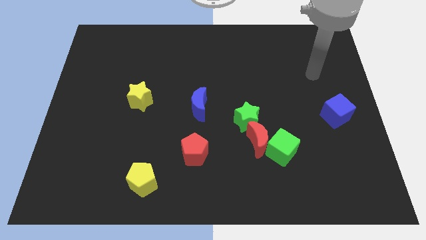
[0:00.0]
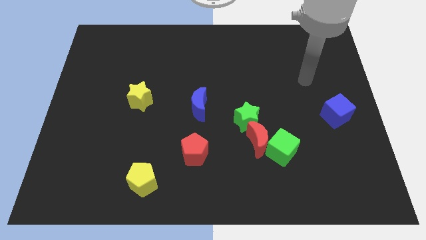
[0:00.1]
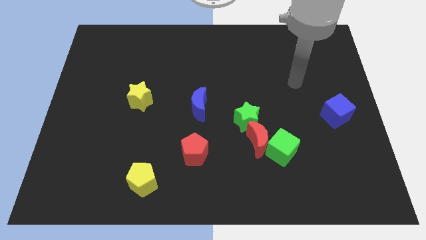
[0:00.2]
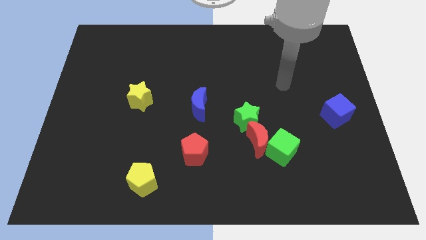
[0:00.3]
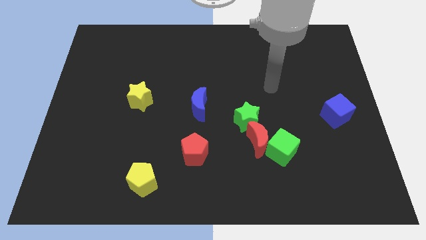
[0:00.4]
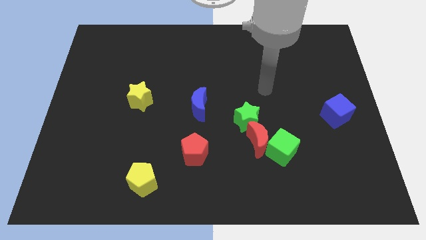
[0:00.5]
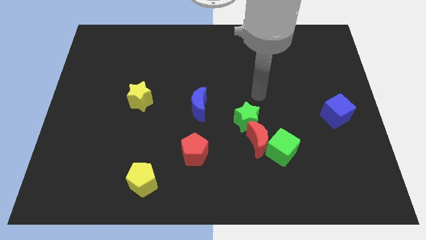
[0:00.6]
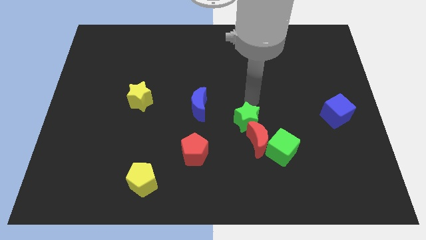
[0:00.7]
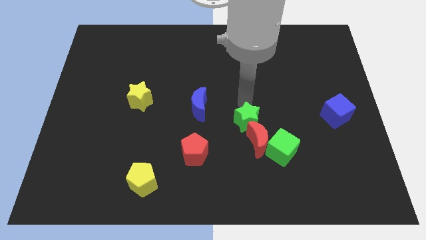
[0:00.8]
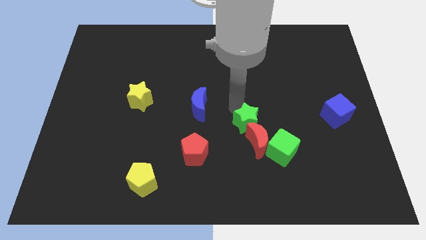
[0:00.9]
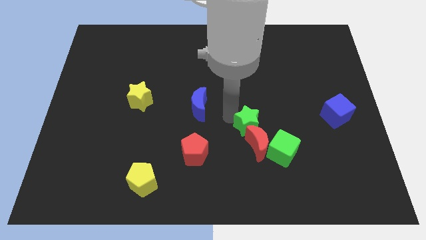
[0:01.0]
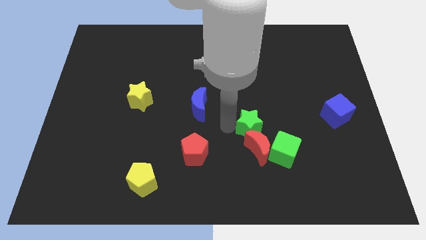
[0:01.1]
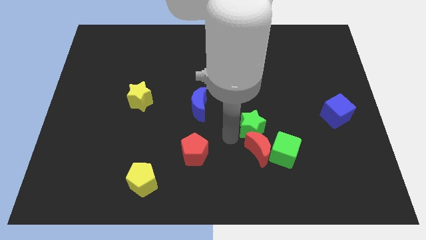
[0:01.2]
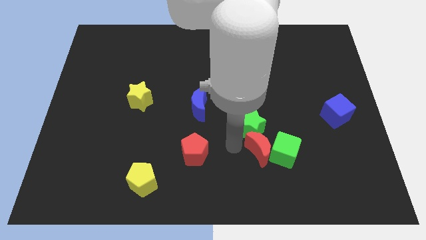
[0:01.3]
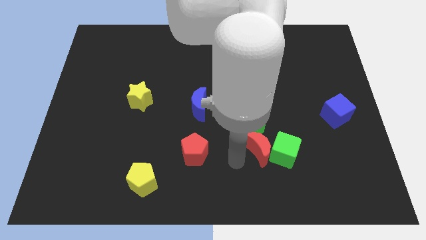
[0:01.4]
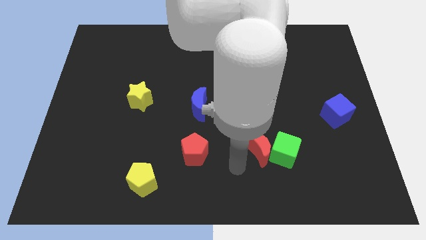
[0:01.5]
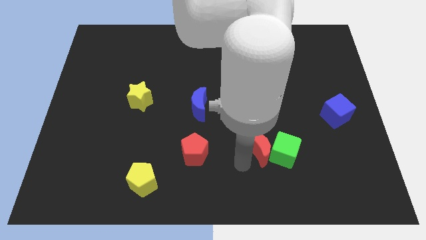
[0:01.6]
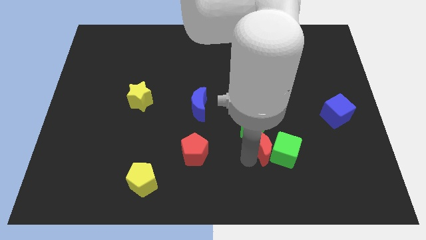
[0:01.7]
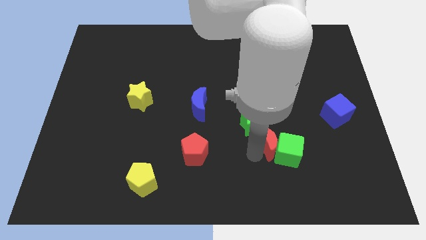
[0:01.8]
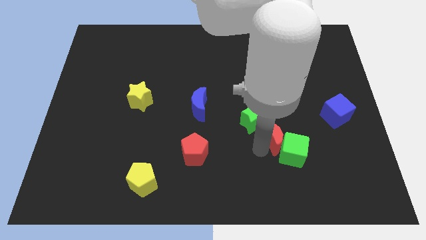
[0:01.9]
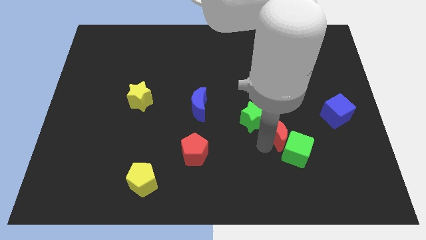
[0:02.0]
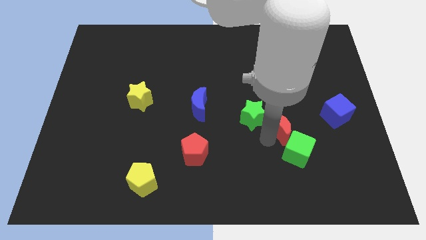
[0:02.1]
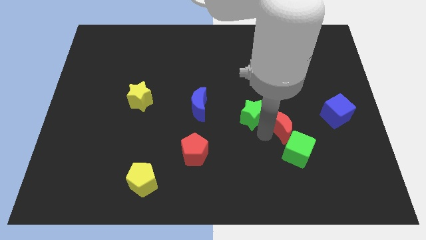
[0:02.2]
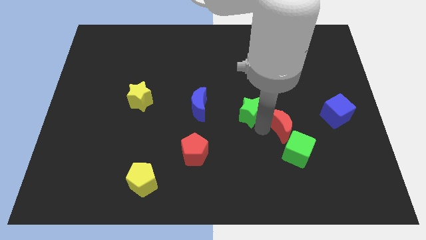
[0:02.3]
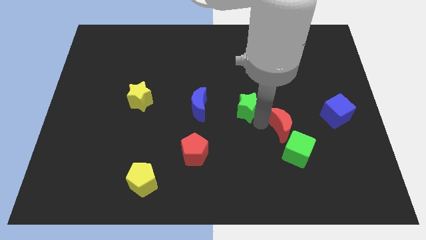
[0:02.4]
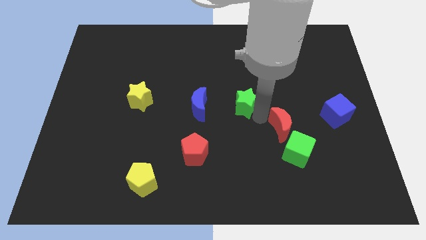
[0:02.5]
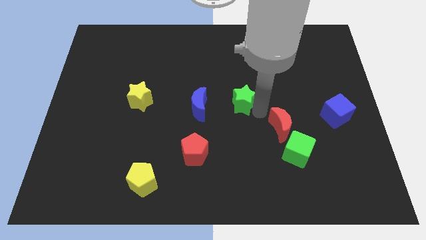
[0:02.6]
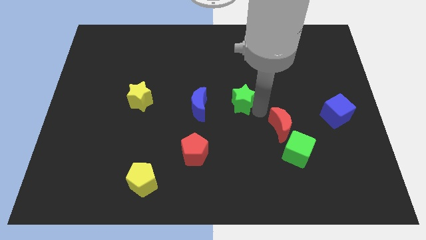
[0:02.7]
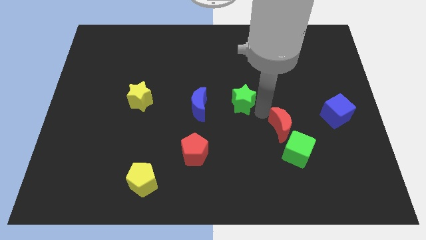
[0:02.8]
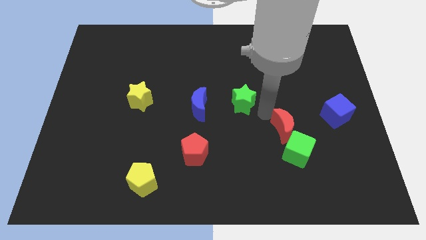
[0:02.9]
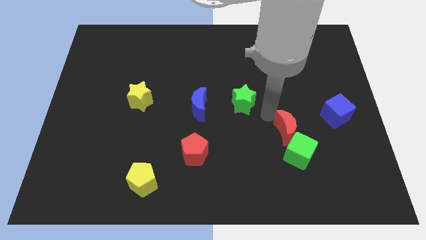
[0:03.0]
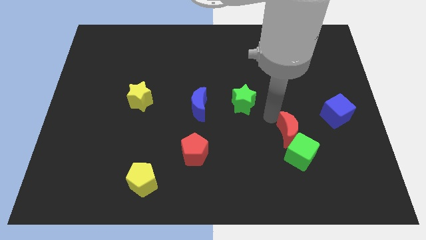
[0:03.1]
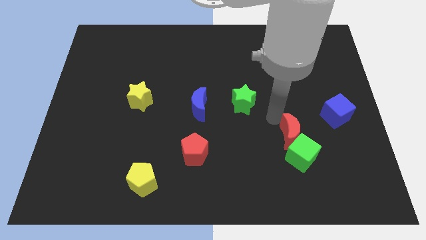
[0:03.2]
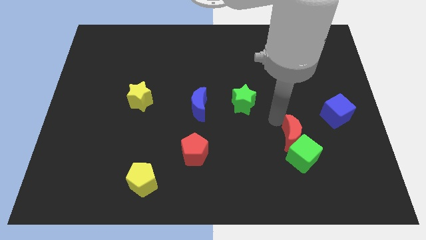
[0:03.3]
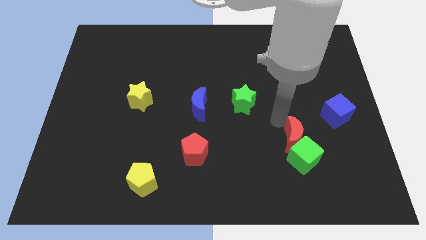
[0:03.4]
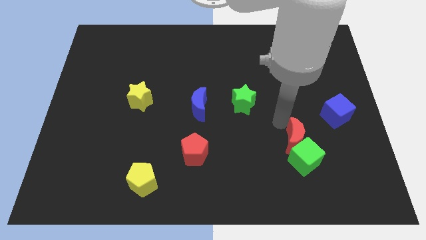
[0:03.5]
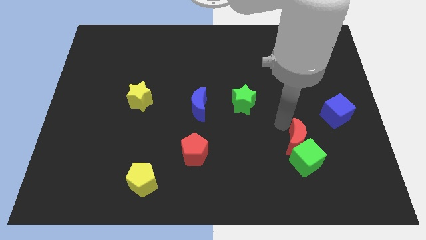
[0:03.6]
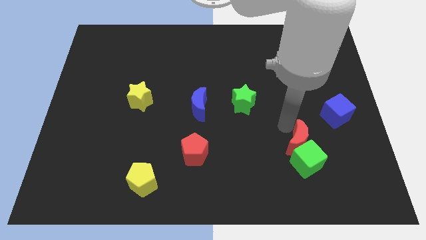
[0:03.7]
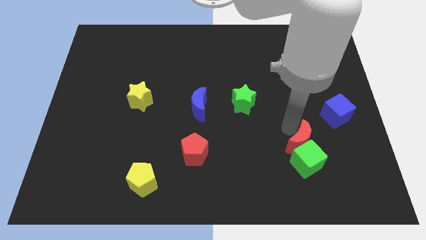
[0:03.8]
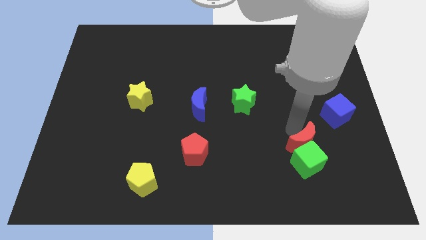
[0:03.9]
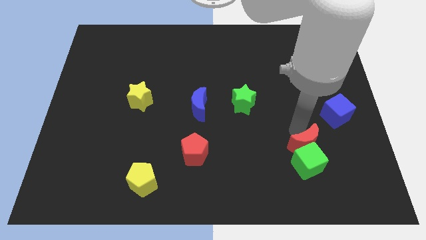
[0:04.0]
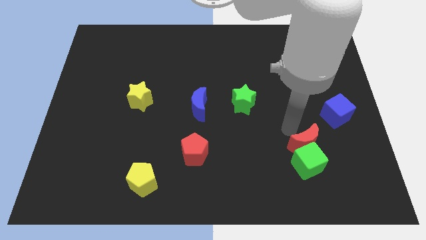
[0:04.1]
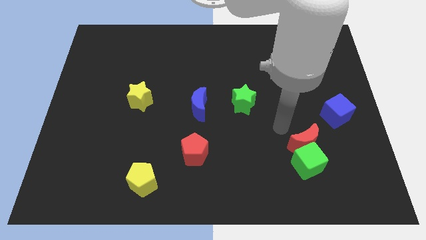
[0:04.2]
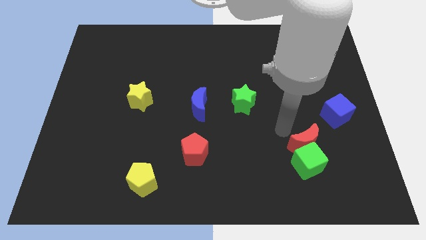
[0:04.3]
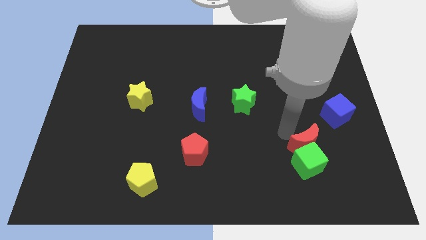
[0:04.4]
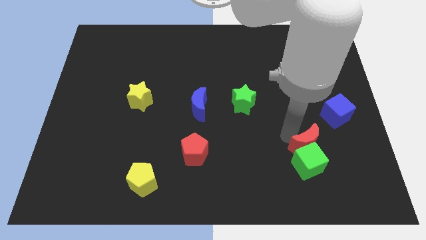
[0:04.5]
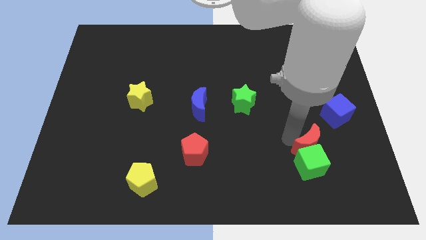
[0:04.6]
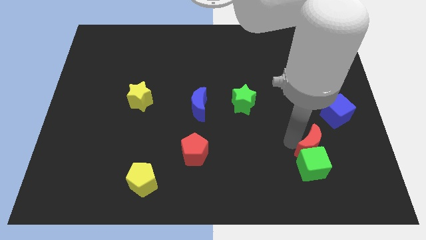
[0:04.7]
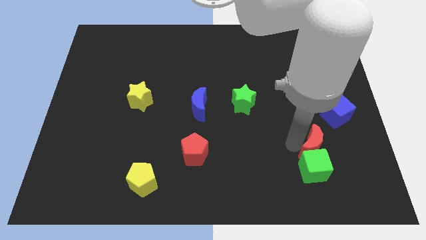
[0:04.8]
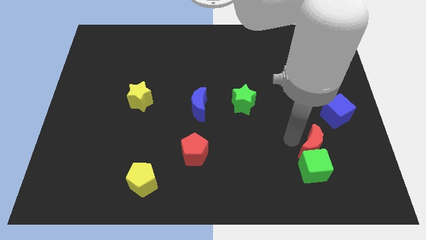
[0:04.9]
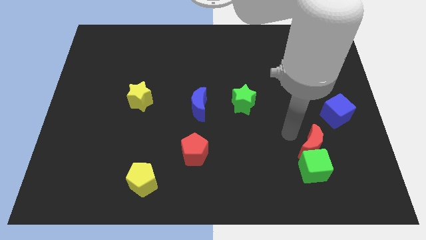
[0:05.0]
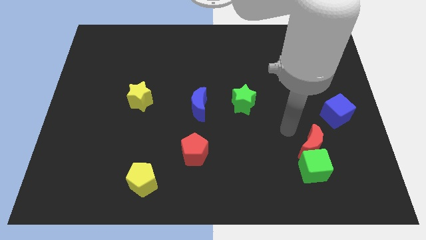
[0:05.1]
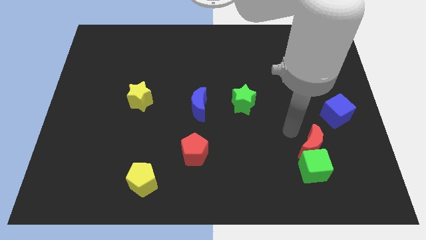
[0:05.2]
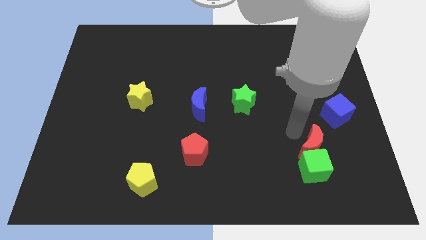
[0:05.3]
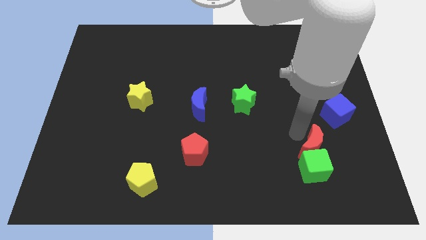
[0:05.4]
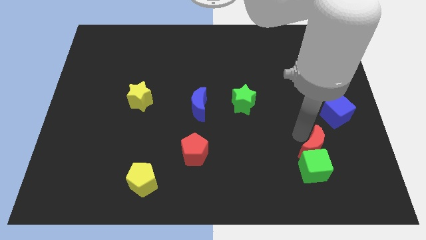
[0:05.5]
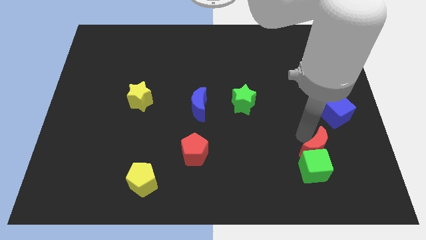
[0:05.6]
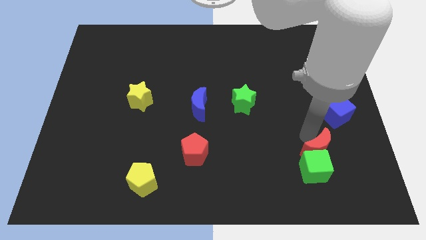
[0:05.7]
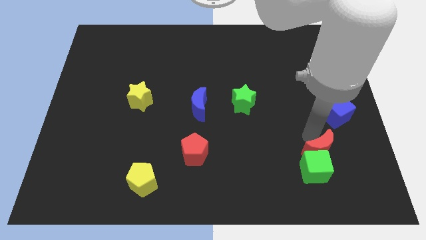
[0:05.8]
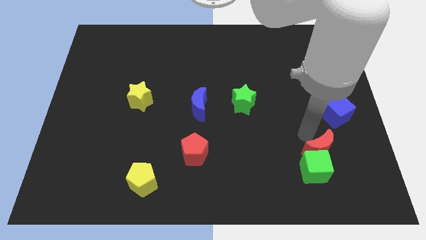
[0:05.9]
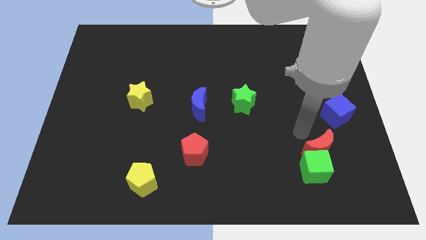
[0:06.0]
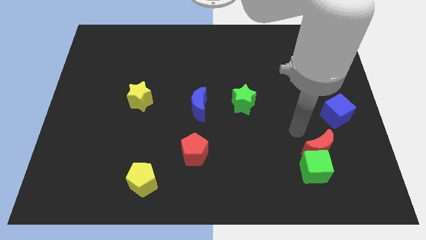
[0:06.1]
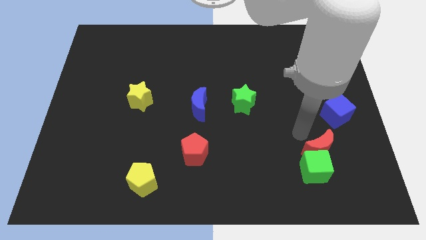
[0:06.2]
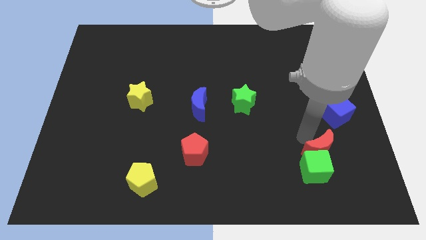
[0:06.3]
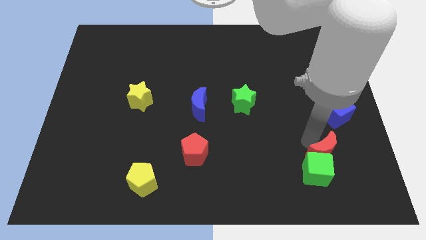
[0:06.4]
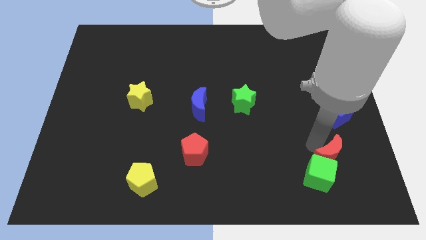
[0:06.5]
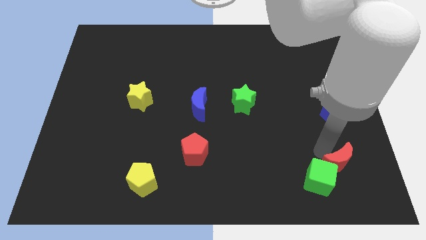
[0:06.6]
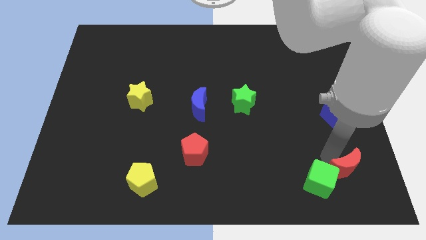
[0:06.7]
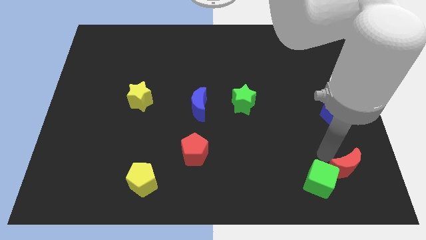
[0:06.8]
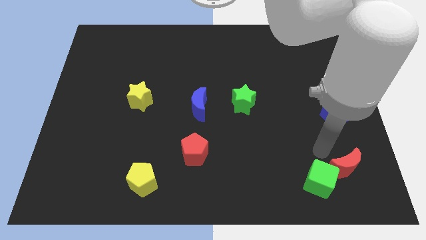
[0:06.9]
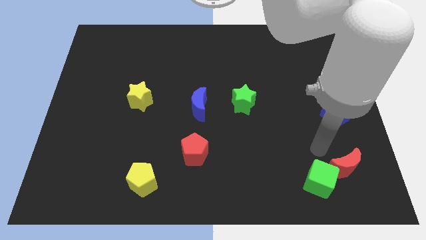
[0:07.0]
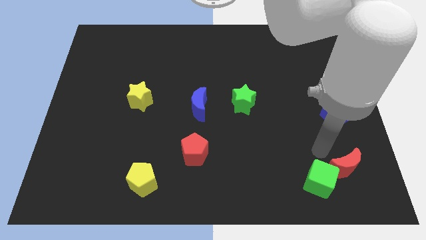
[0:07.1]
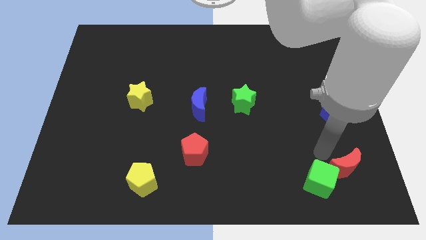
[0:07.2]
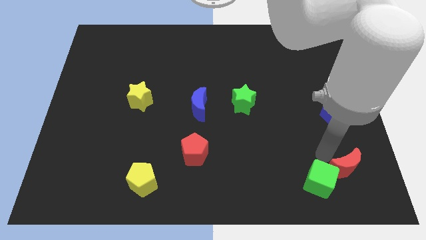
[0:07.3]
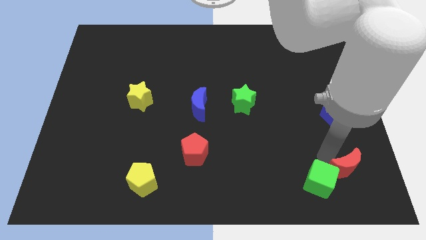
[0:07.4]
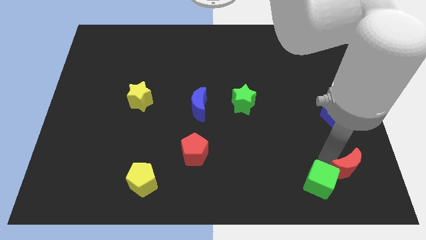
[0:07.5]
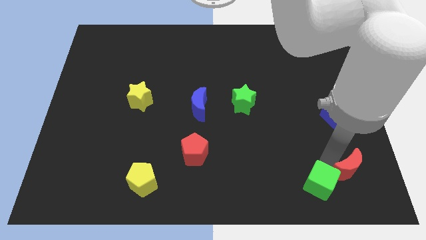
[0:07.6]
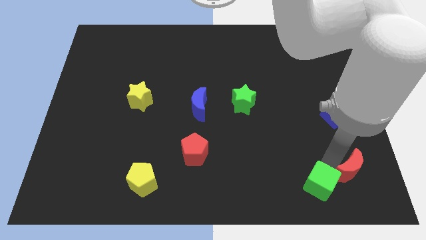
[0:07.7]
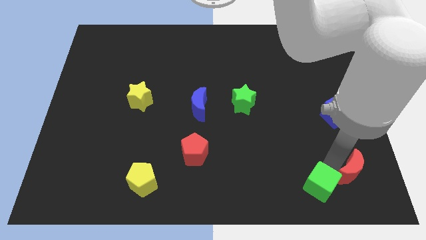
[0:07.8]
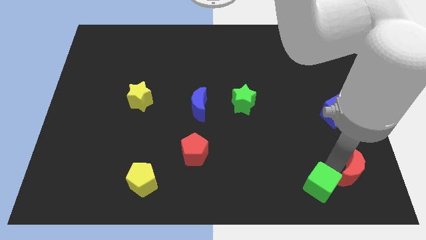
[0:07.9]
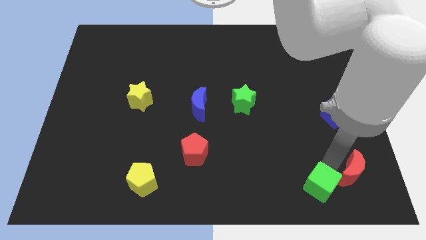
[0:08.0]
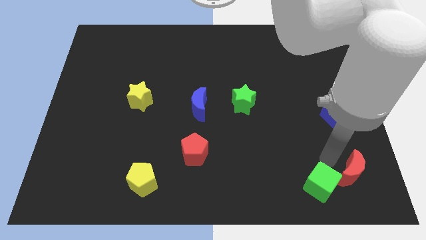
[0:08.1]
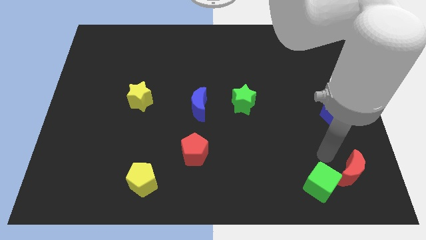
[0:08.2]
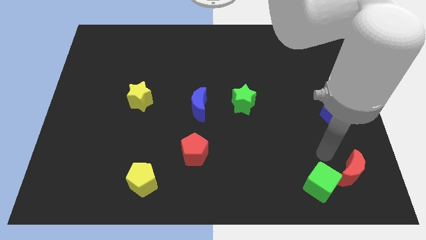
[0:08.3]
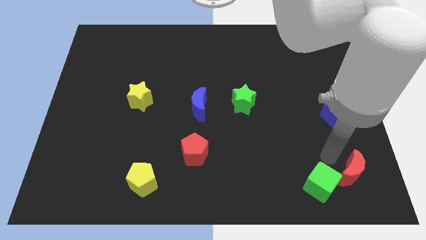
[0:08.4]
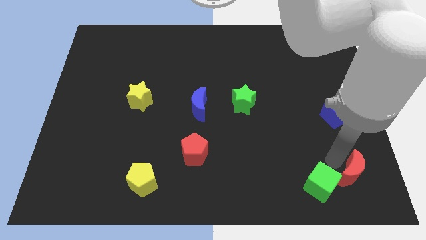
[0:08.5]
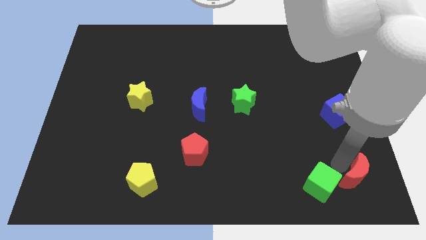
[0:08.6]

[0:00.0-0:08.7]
move the red moon to the bottom right corner
